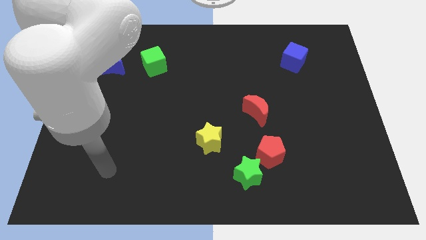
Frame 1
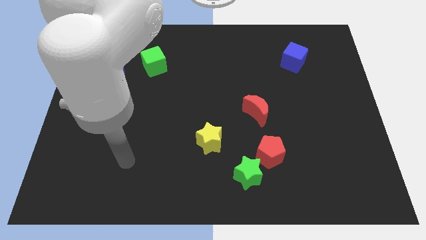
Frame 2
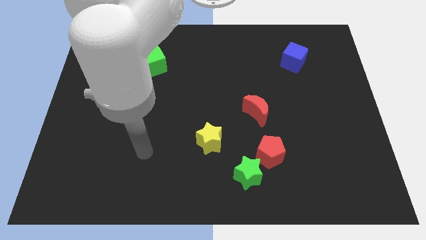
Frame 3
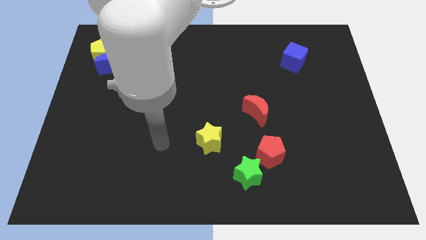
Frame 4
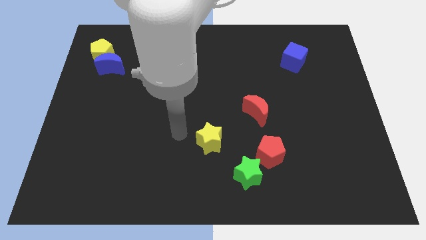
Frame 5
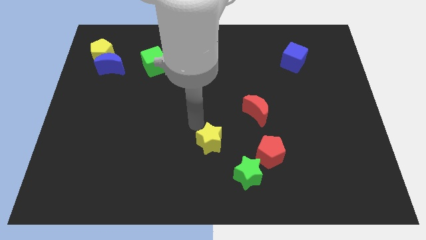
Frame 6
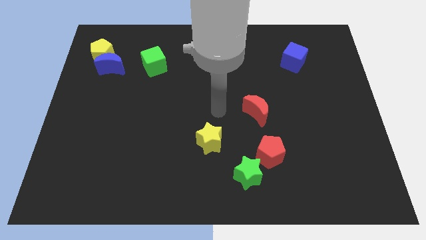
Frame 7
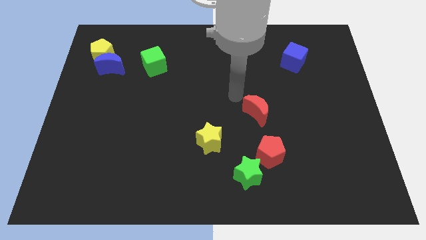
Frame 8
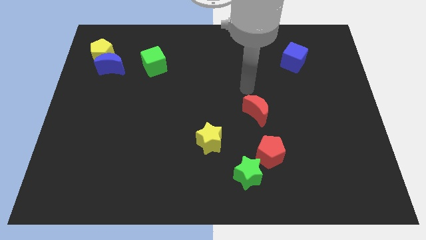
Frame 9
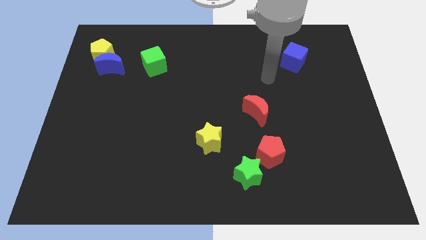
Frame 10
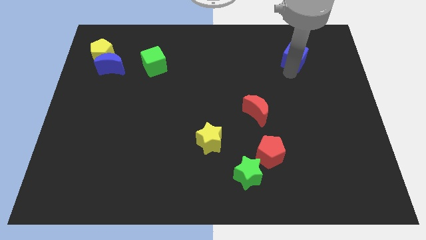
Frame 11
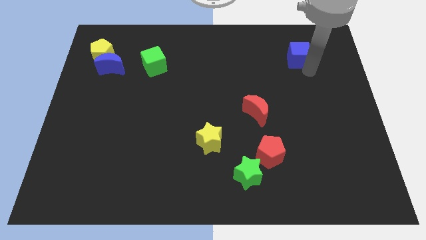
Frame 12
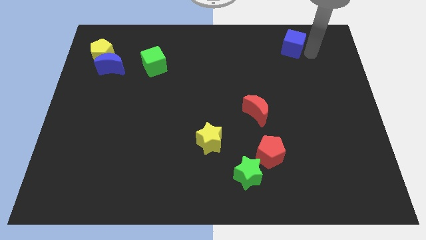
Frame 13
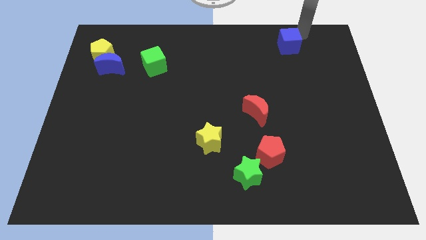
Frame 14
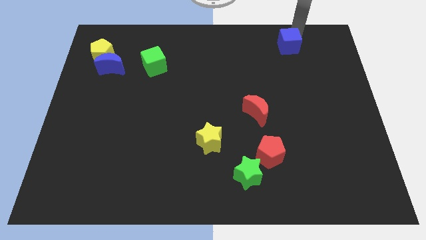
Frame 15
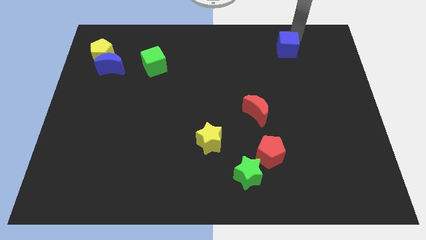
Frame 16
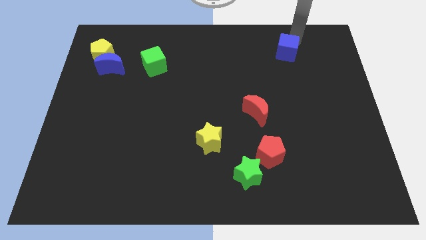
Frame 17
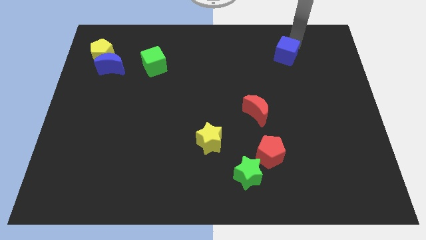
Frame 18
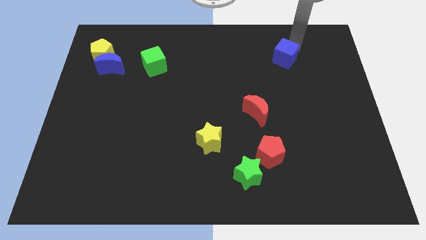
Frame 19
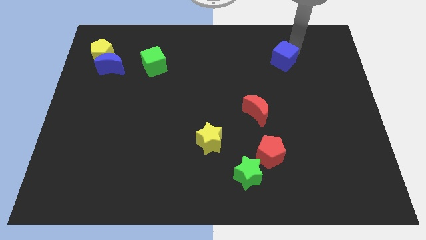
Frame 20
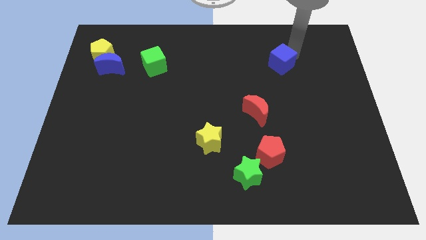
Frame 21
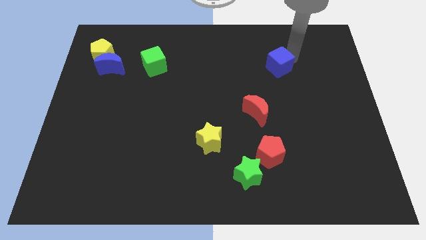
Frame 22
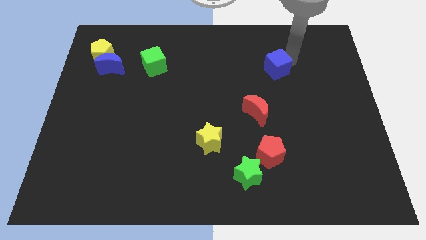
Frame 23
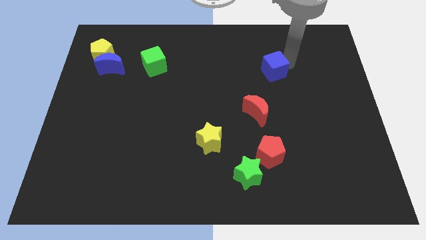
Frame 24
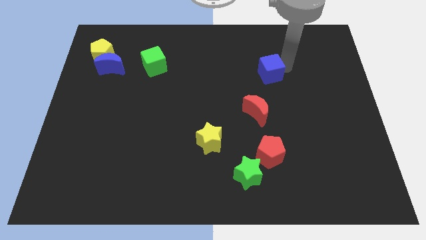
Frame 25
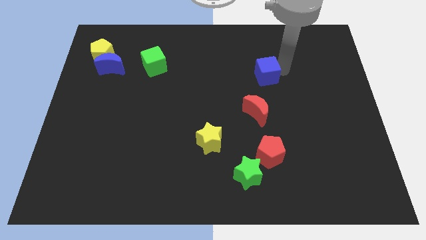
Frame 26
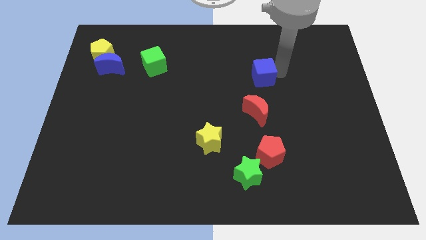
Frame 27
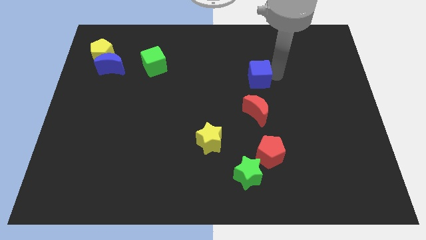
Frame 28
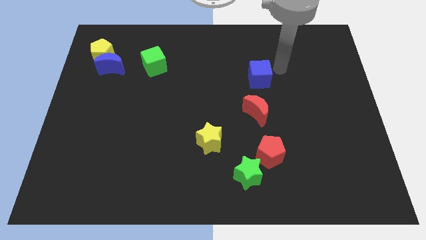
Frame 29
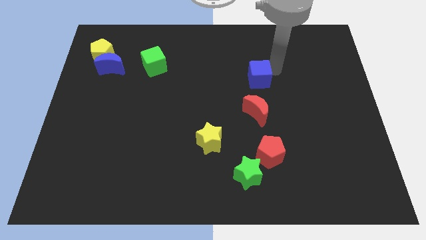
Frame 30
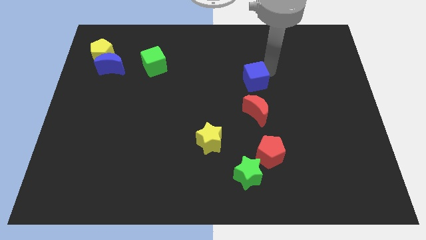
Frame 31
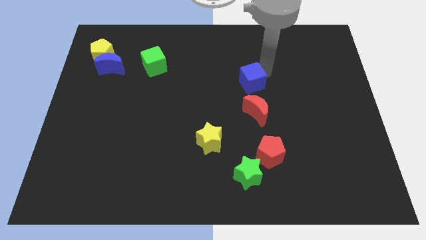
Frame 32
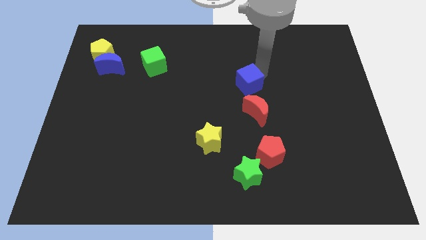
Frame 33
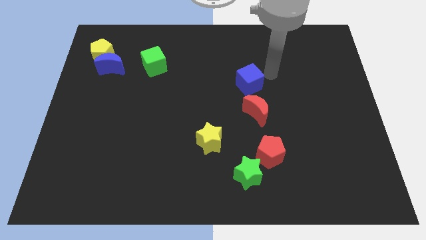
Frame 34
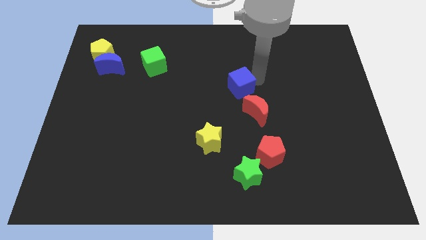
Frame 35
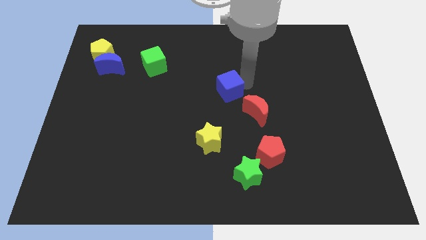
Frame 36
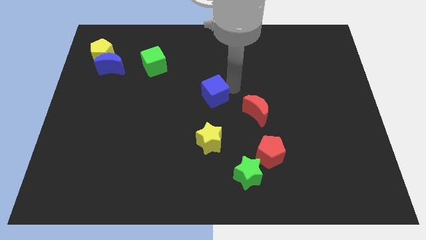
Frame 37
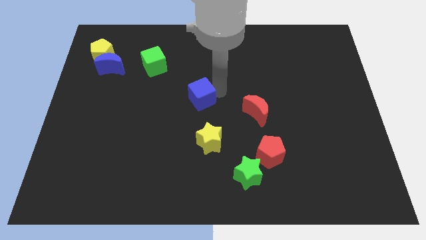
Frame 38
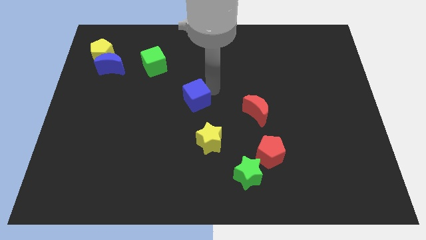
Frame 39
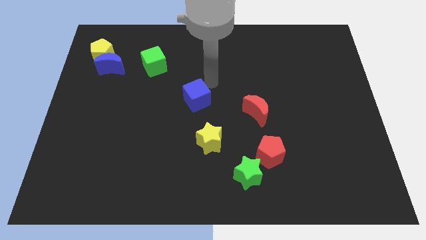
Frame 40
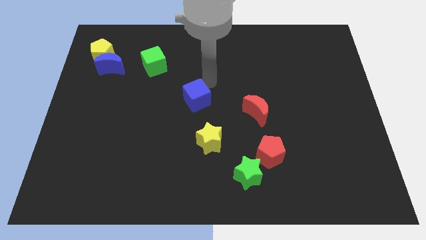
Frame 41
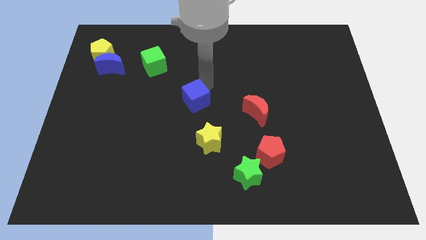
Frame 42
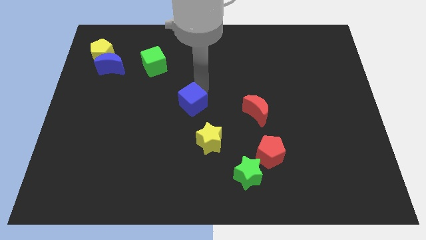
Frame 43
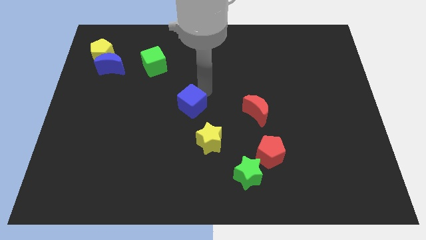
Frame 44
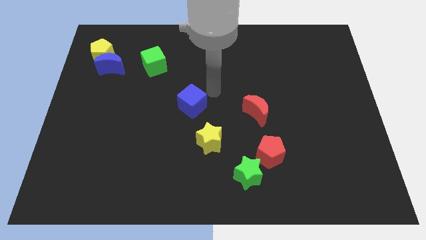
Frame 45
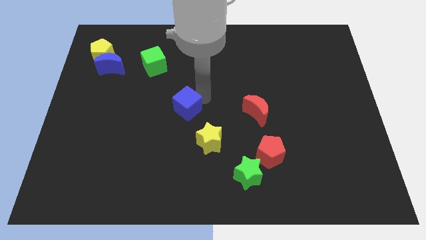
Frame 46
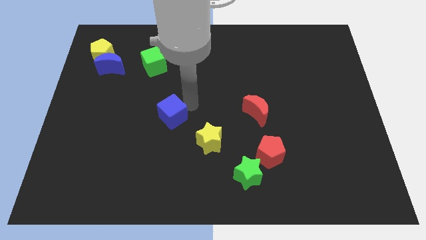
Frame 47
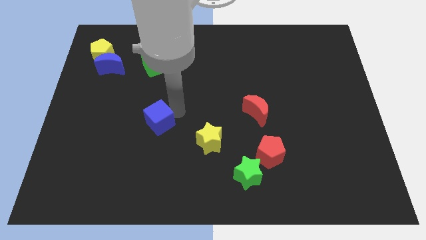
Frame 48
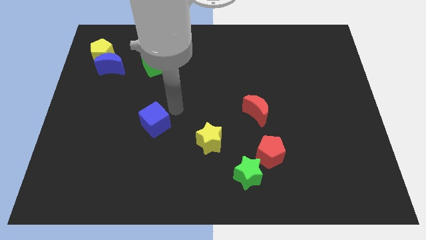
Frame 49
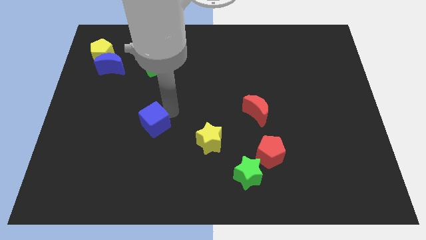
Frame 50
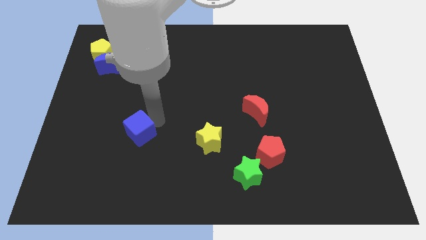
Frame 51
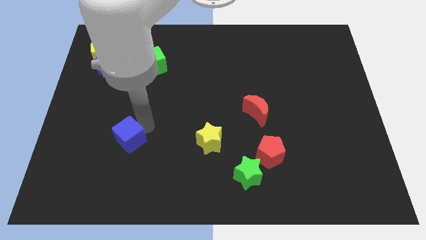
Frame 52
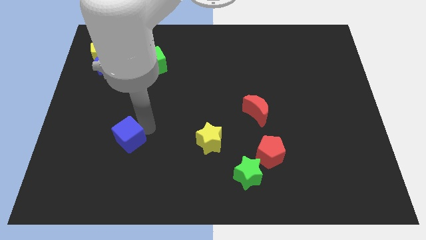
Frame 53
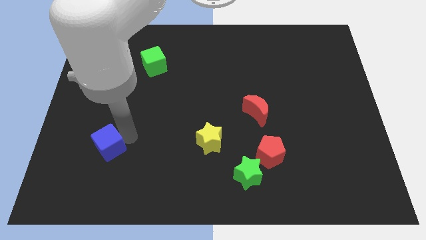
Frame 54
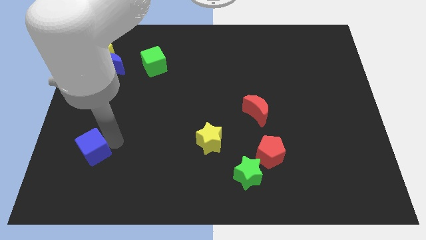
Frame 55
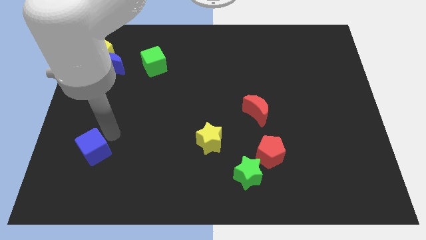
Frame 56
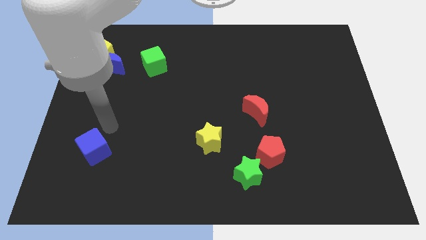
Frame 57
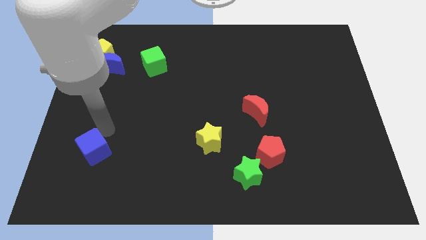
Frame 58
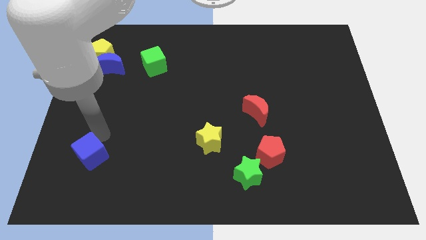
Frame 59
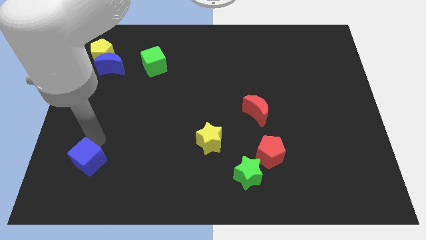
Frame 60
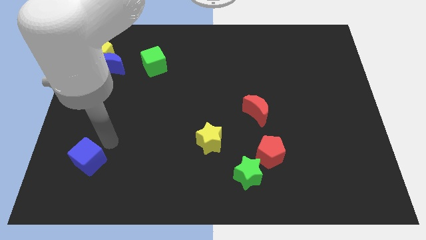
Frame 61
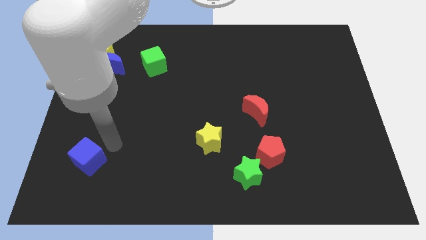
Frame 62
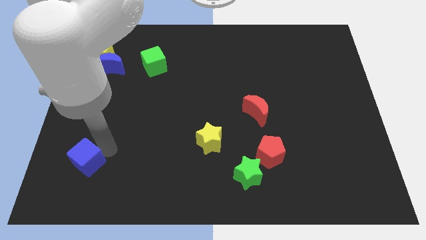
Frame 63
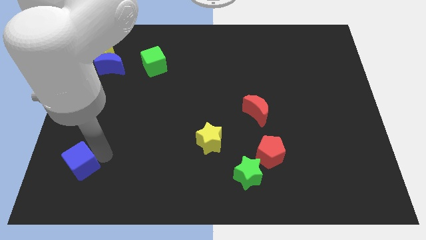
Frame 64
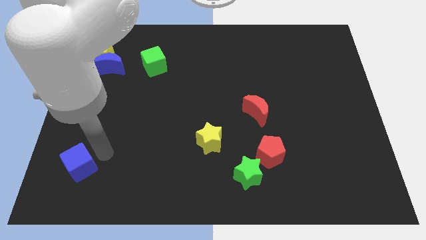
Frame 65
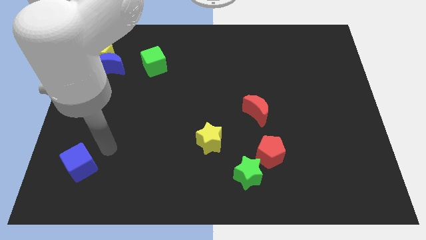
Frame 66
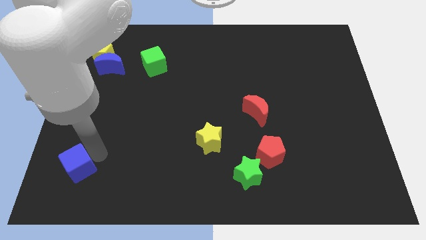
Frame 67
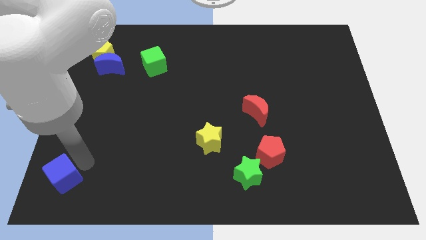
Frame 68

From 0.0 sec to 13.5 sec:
put the blue cube to the bottom left of the board
